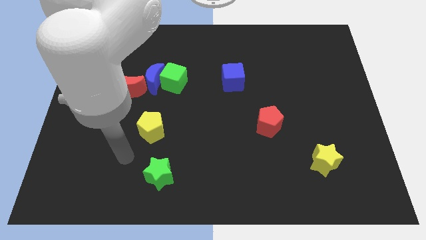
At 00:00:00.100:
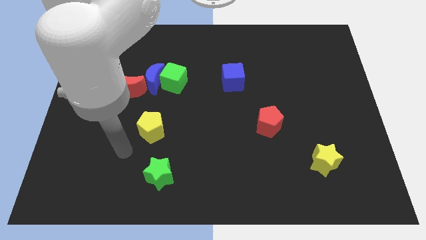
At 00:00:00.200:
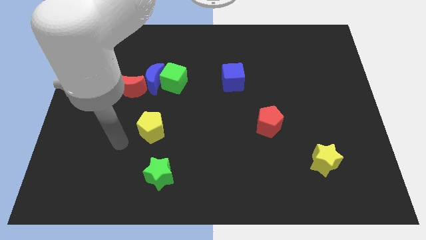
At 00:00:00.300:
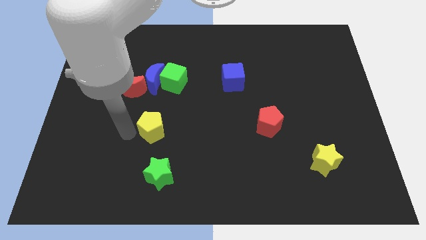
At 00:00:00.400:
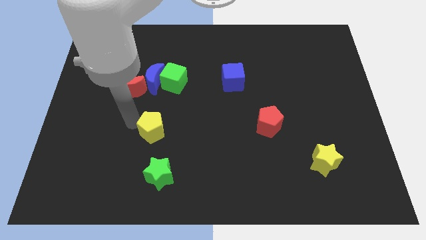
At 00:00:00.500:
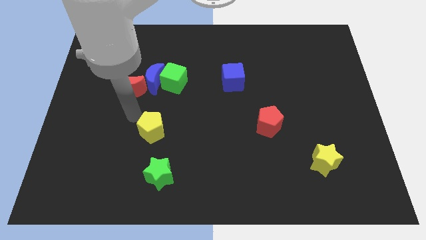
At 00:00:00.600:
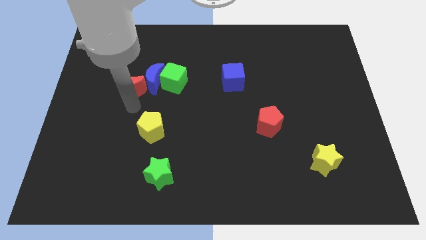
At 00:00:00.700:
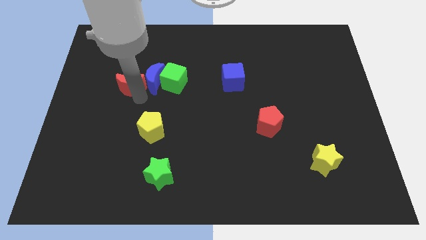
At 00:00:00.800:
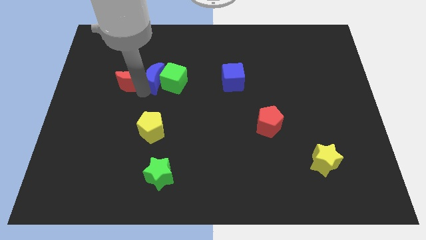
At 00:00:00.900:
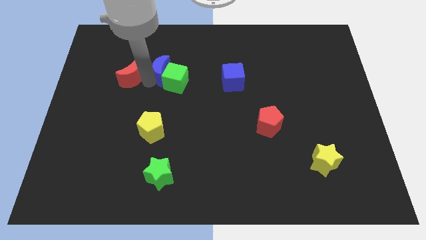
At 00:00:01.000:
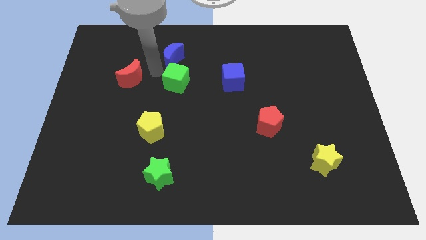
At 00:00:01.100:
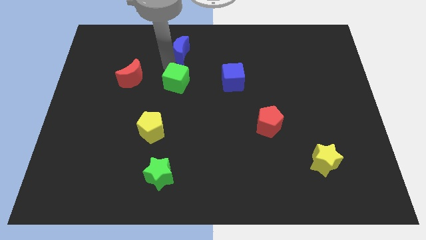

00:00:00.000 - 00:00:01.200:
separate the green cube from the blue moon

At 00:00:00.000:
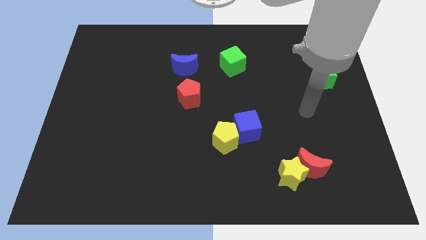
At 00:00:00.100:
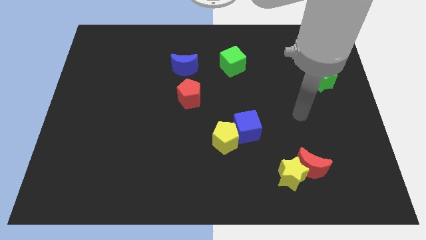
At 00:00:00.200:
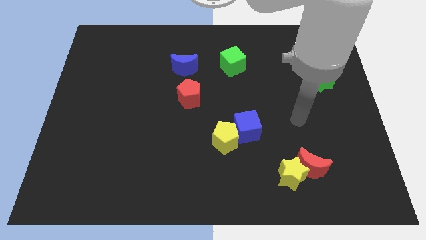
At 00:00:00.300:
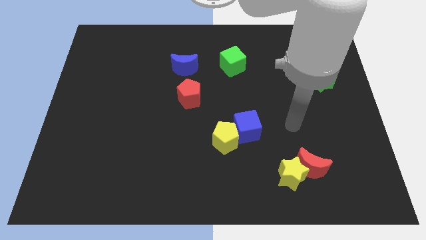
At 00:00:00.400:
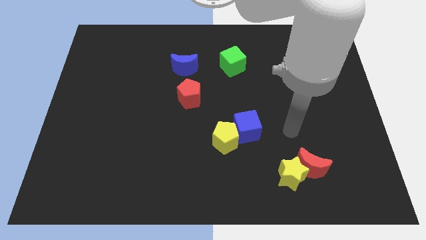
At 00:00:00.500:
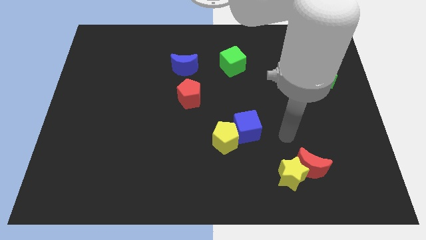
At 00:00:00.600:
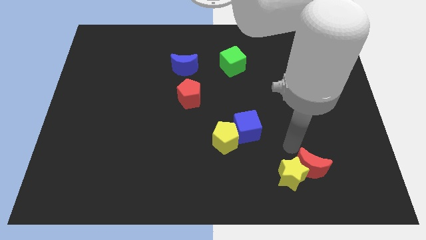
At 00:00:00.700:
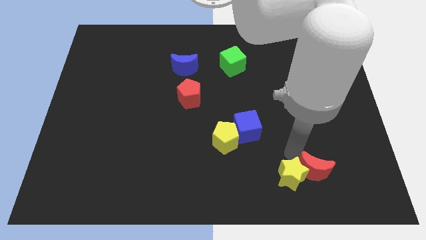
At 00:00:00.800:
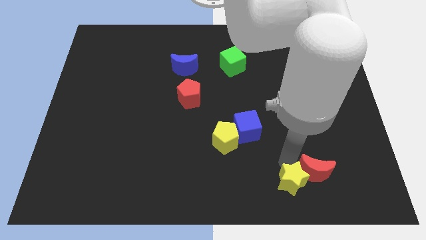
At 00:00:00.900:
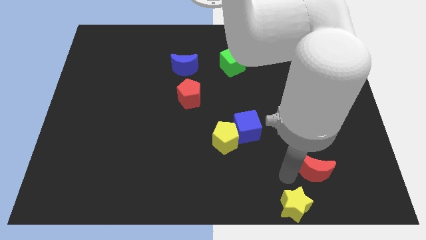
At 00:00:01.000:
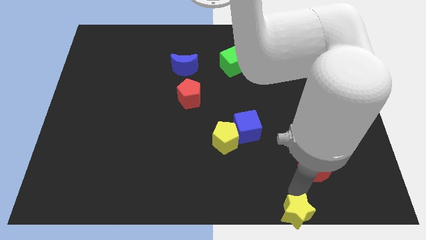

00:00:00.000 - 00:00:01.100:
pull the red moon apart from the yellow star

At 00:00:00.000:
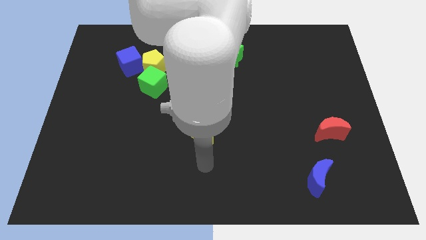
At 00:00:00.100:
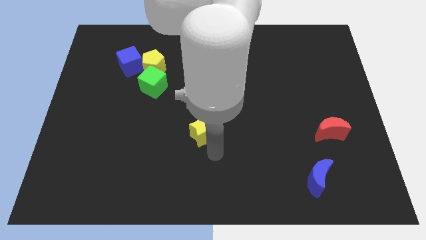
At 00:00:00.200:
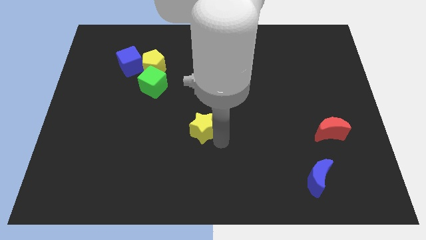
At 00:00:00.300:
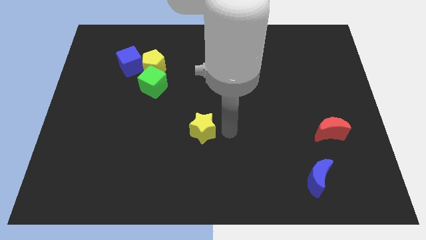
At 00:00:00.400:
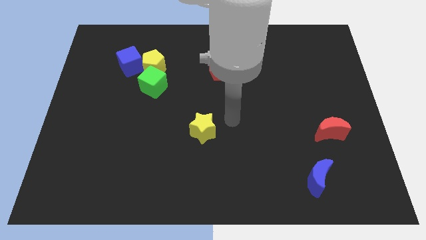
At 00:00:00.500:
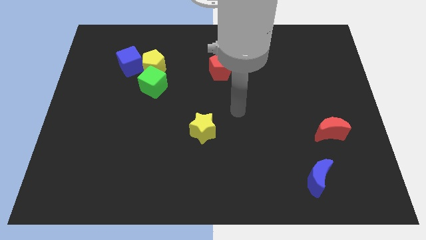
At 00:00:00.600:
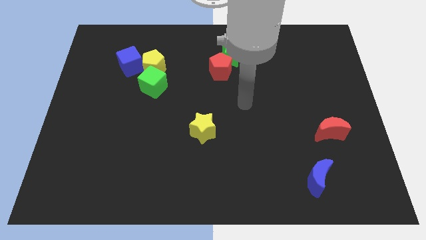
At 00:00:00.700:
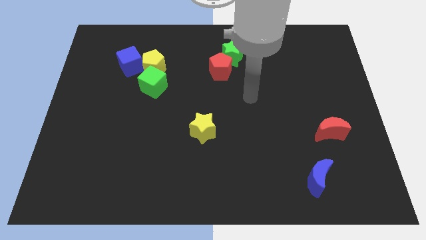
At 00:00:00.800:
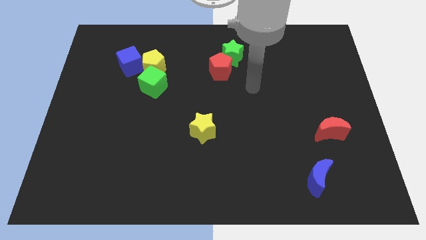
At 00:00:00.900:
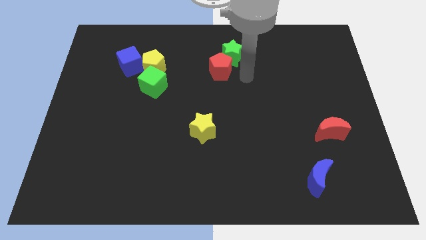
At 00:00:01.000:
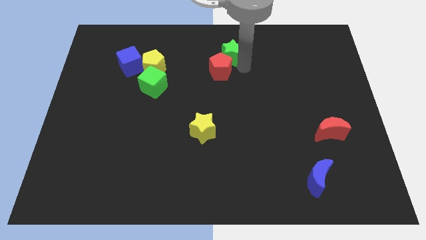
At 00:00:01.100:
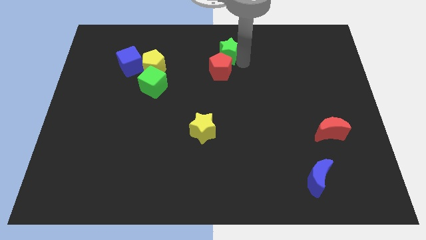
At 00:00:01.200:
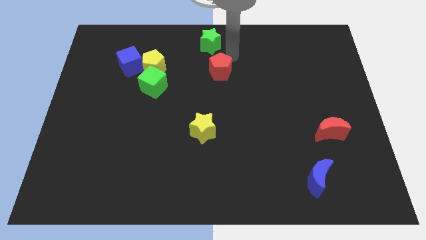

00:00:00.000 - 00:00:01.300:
pull the red pentagon apart from the green star

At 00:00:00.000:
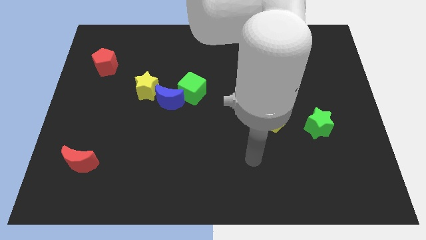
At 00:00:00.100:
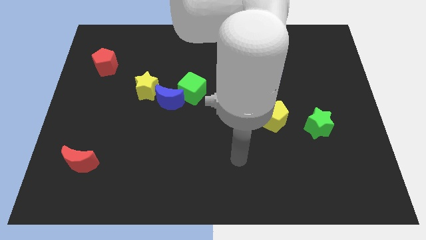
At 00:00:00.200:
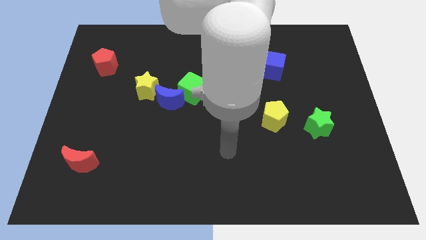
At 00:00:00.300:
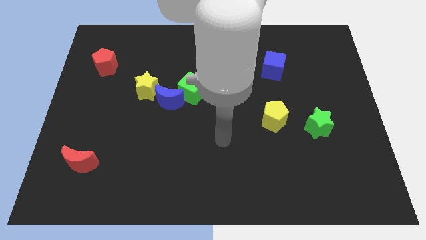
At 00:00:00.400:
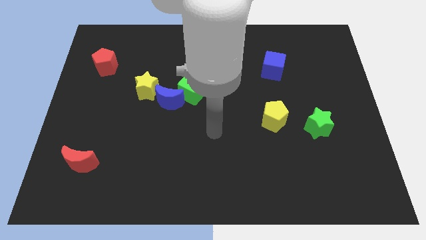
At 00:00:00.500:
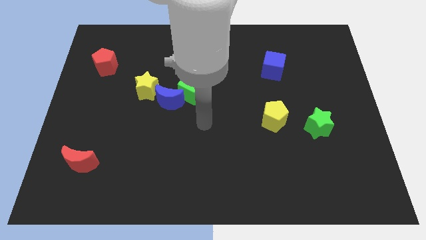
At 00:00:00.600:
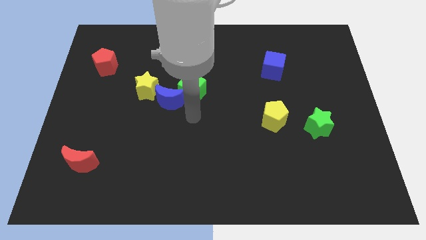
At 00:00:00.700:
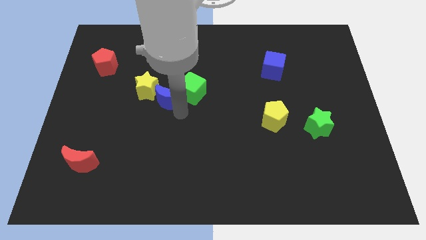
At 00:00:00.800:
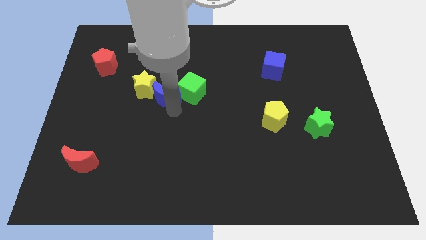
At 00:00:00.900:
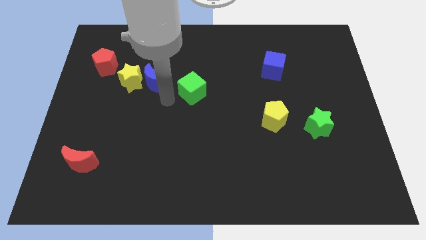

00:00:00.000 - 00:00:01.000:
pull the green cube apart from the blue moon

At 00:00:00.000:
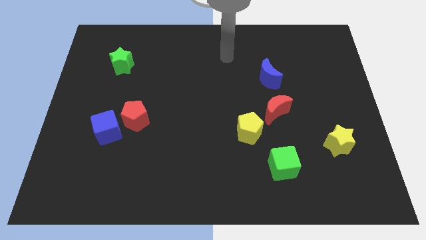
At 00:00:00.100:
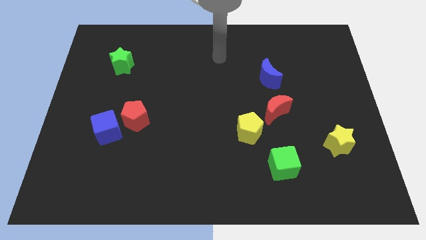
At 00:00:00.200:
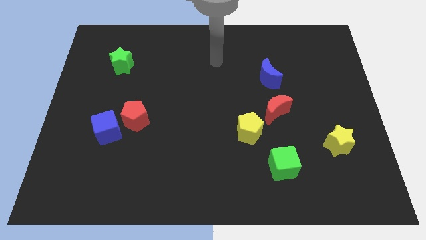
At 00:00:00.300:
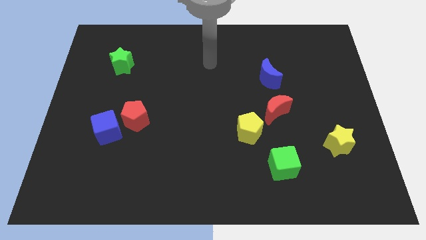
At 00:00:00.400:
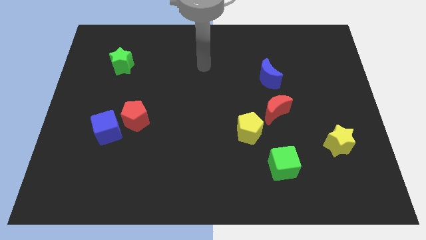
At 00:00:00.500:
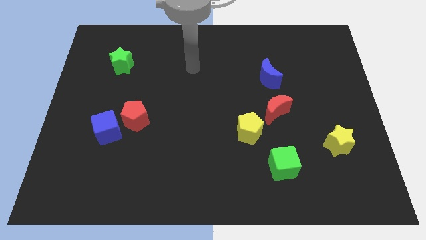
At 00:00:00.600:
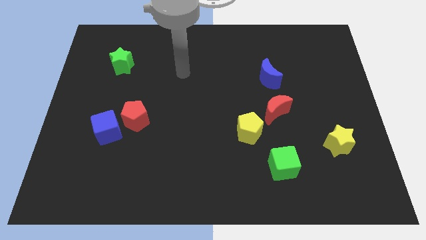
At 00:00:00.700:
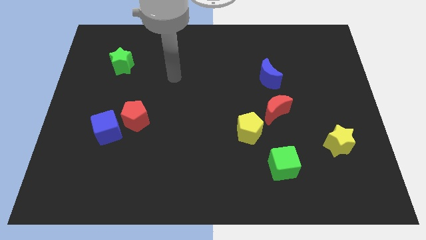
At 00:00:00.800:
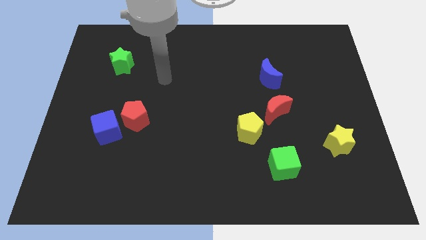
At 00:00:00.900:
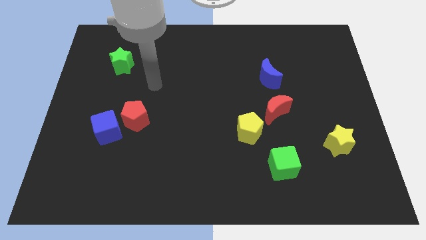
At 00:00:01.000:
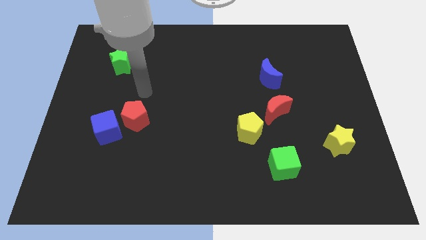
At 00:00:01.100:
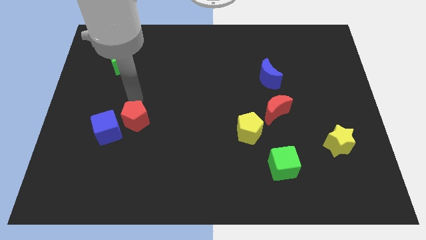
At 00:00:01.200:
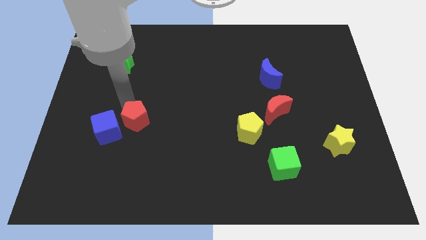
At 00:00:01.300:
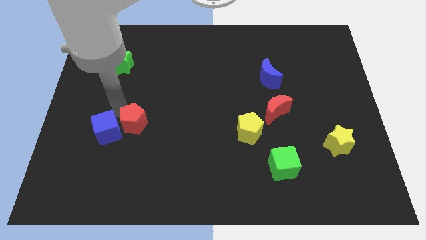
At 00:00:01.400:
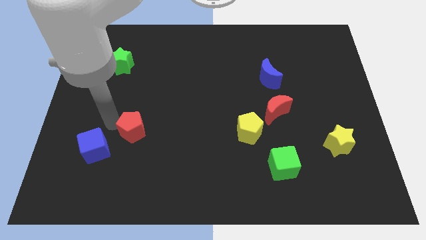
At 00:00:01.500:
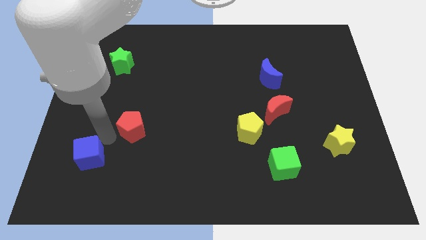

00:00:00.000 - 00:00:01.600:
separate the red pentagon from the blue cube

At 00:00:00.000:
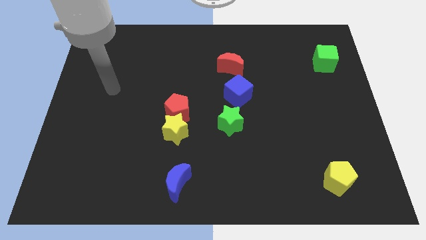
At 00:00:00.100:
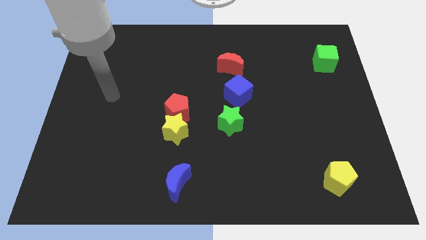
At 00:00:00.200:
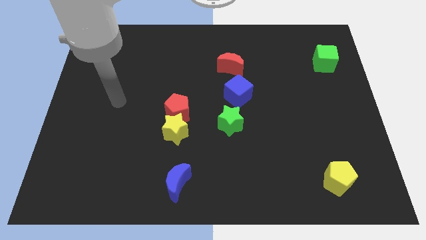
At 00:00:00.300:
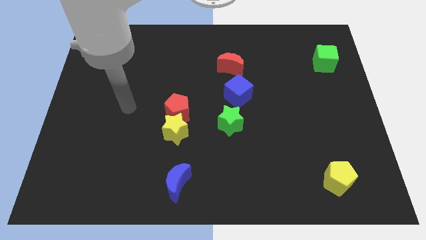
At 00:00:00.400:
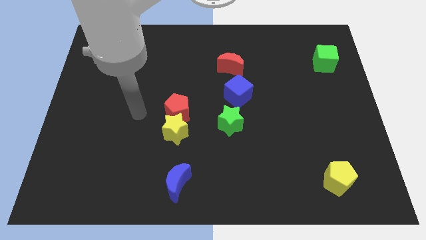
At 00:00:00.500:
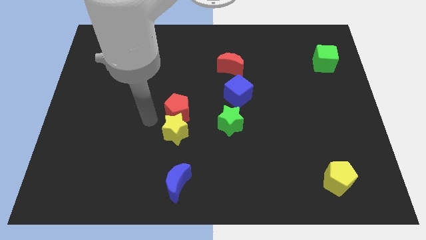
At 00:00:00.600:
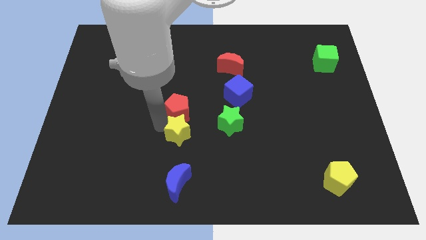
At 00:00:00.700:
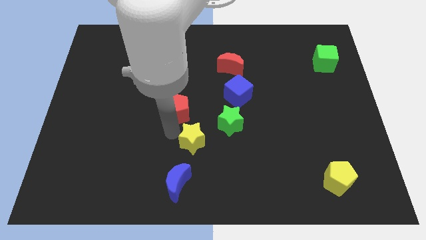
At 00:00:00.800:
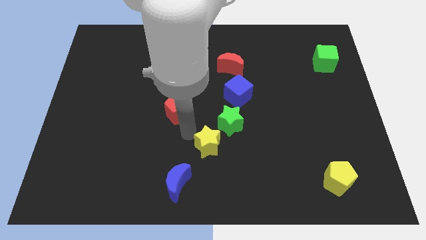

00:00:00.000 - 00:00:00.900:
separate the red pentagon from the yellow star

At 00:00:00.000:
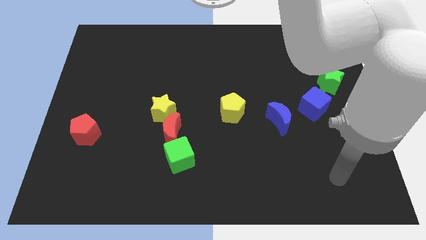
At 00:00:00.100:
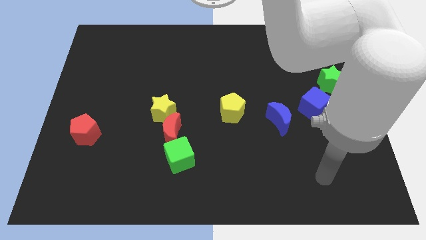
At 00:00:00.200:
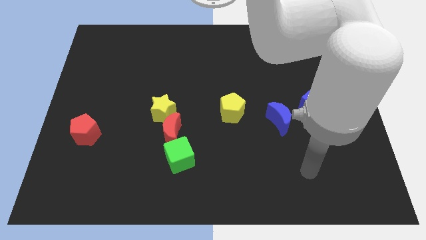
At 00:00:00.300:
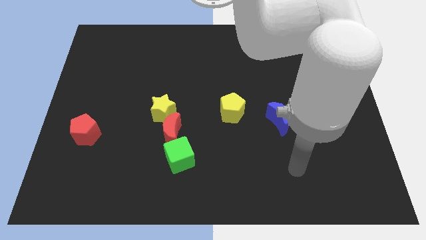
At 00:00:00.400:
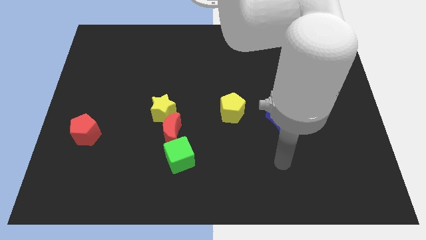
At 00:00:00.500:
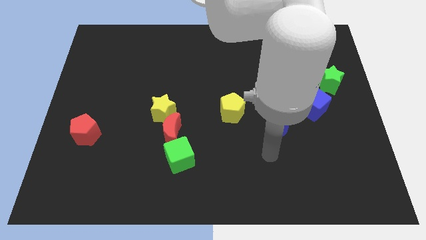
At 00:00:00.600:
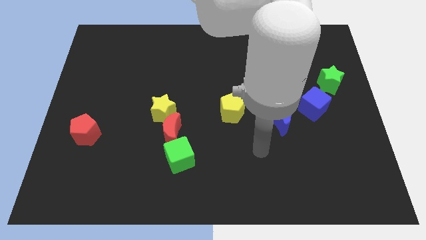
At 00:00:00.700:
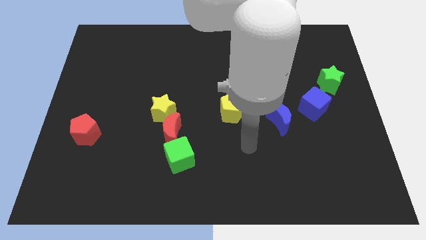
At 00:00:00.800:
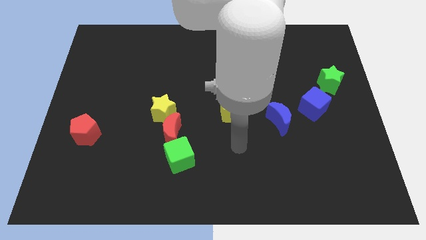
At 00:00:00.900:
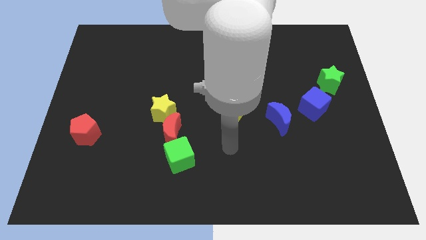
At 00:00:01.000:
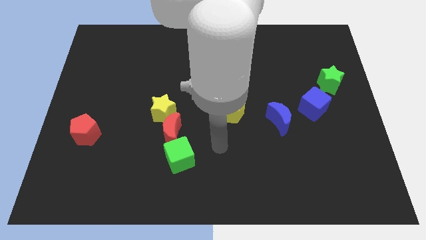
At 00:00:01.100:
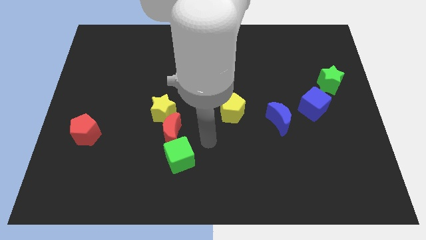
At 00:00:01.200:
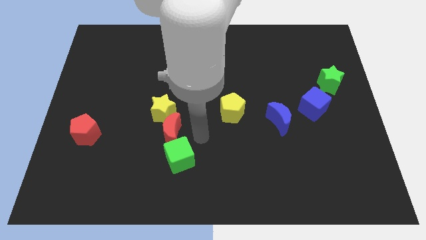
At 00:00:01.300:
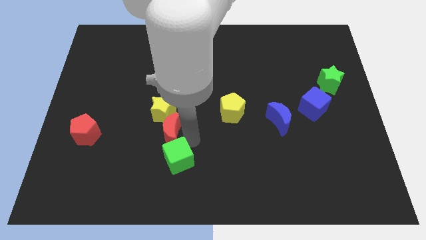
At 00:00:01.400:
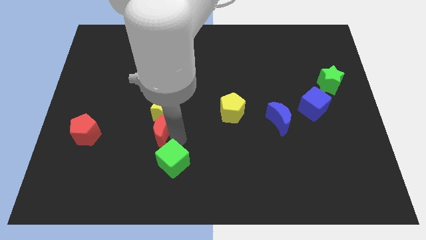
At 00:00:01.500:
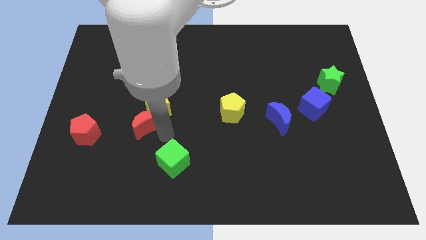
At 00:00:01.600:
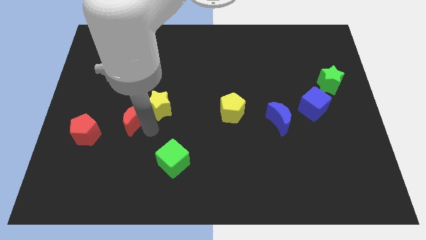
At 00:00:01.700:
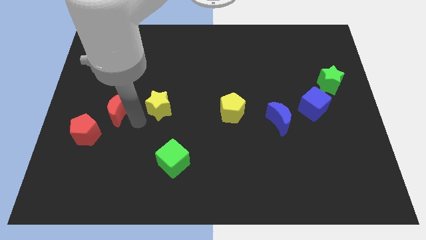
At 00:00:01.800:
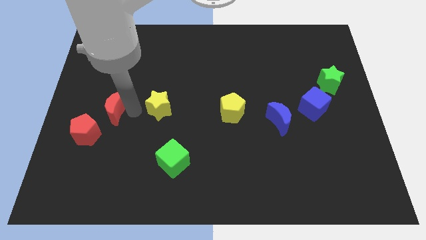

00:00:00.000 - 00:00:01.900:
move the yellow star away from the red moon
